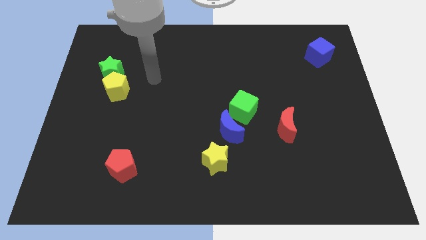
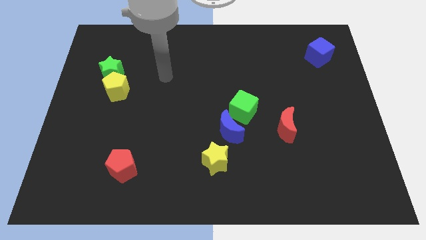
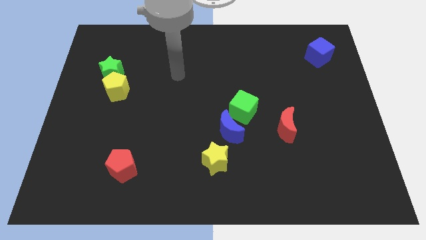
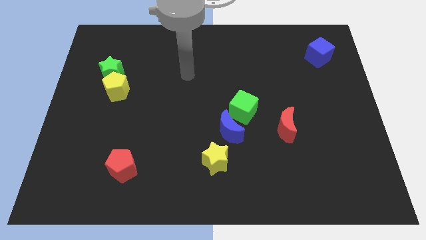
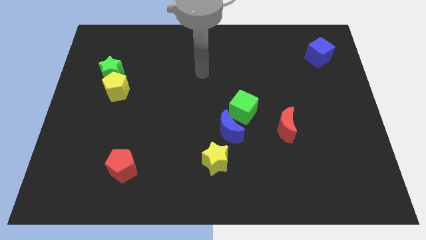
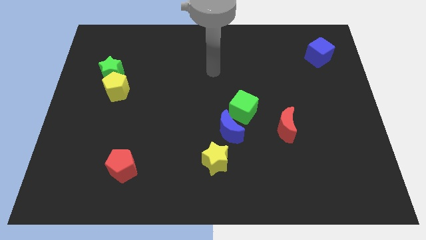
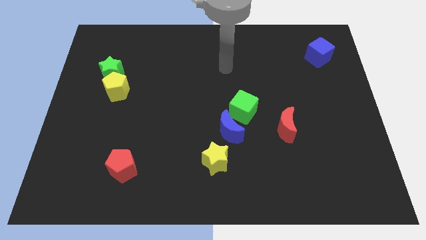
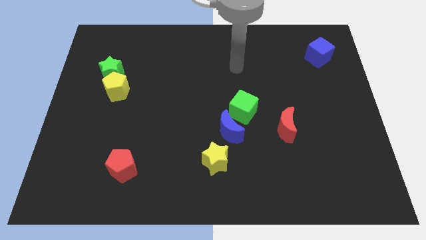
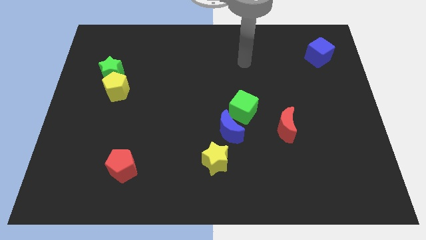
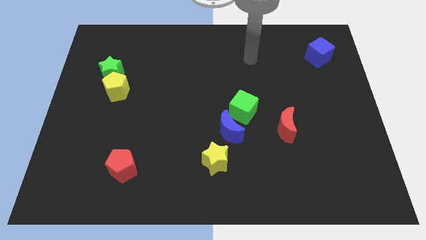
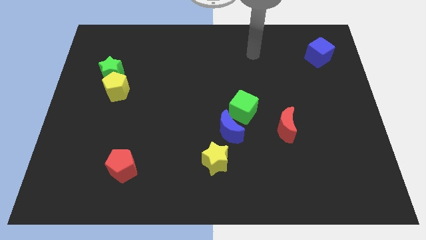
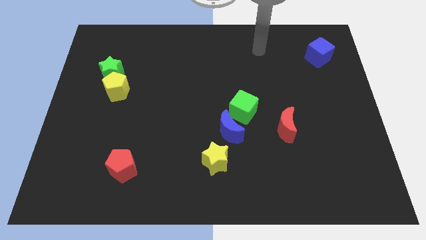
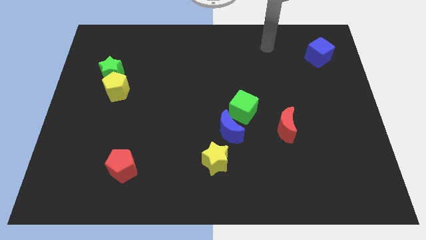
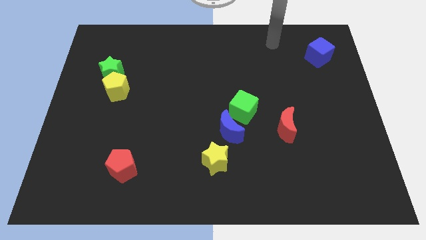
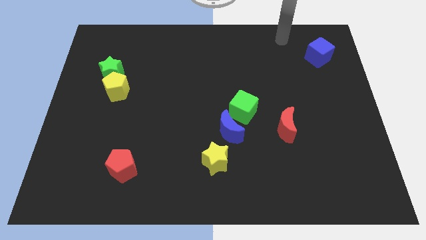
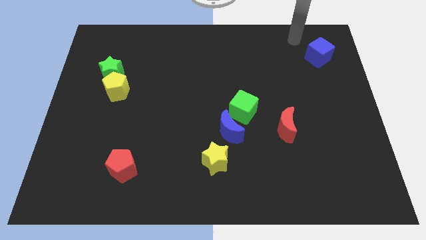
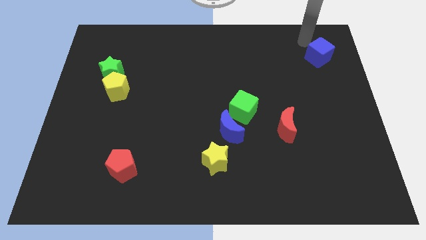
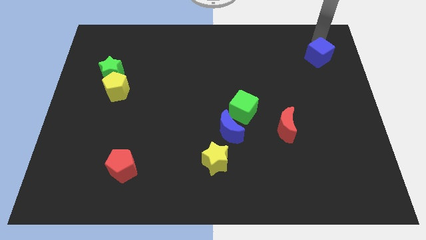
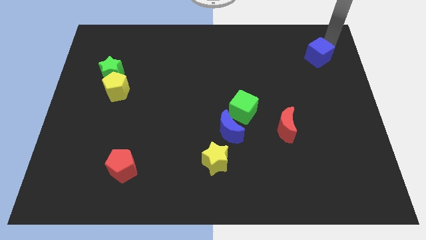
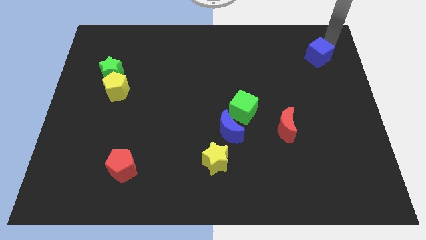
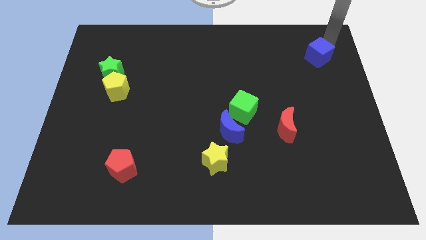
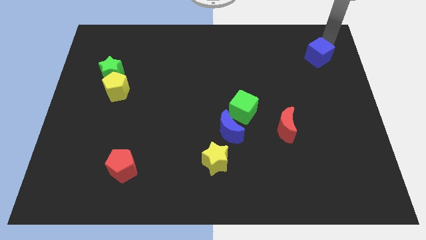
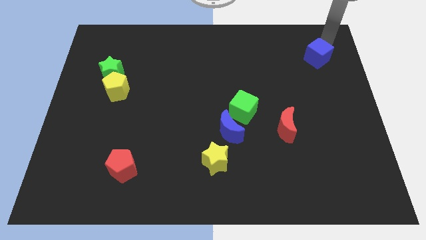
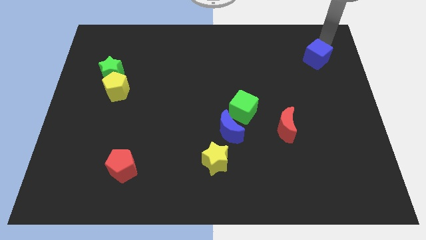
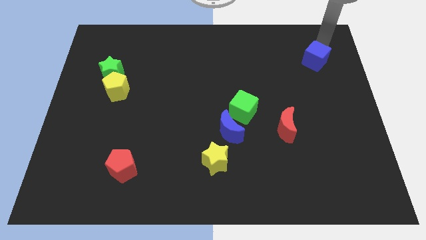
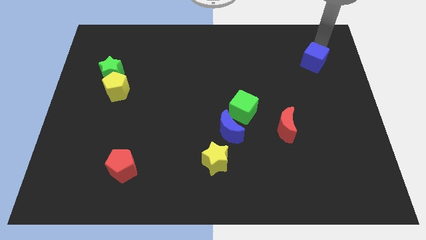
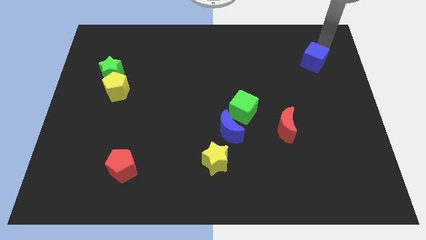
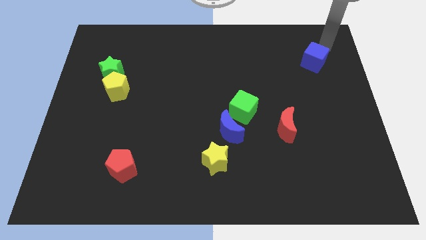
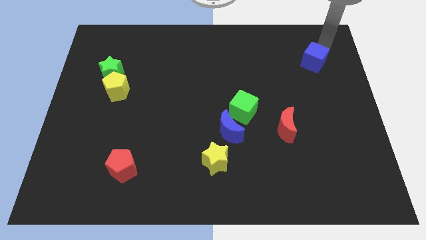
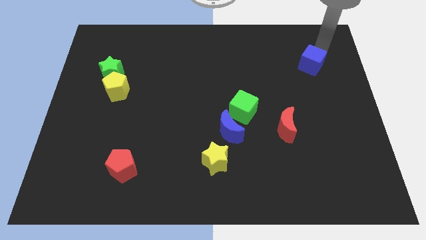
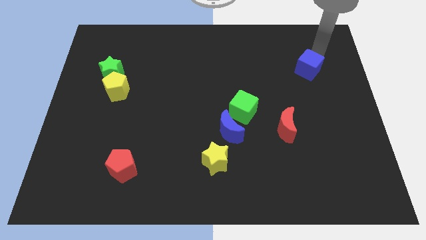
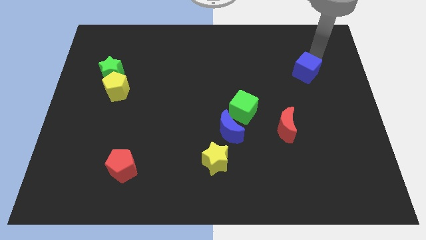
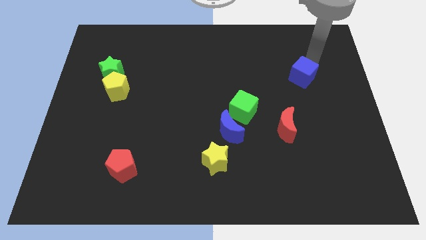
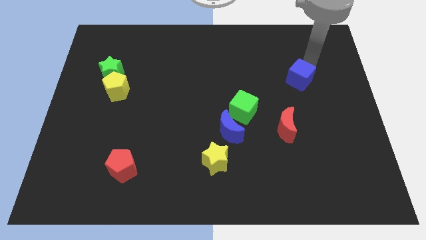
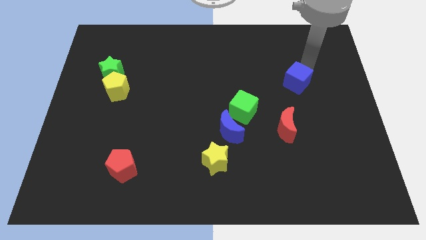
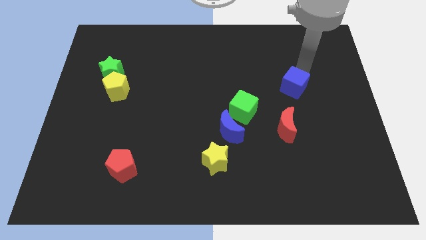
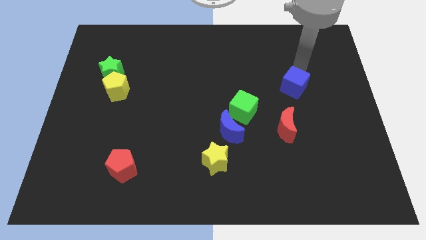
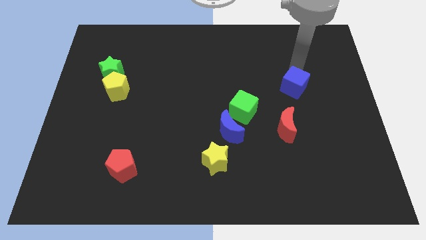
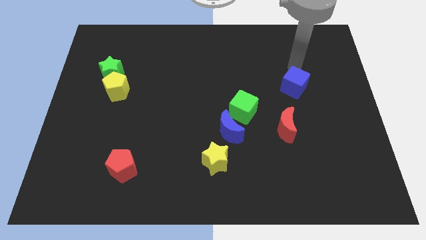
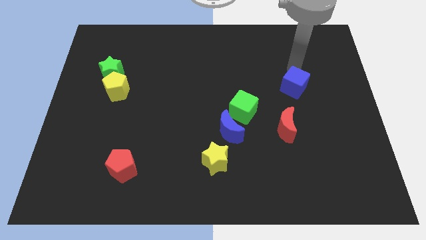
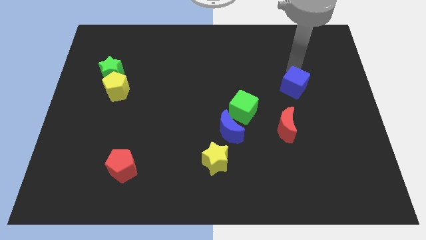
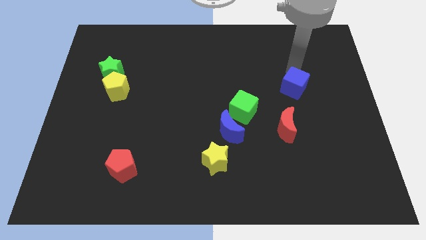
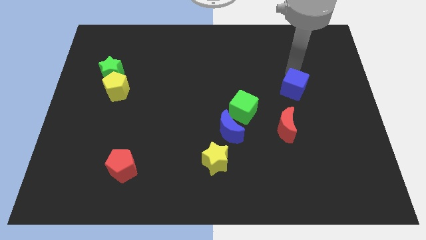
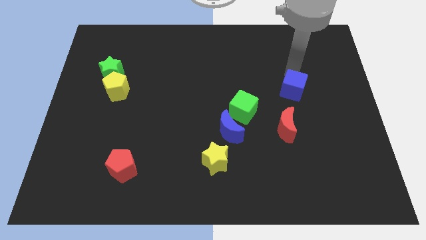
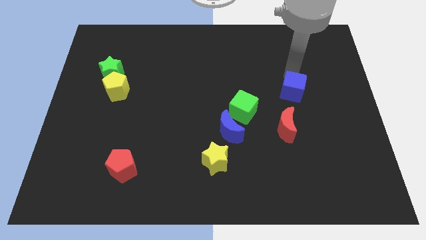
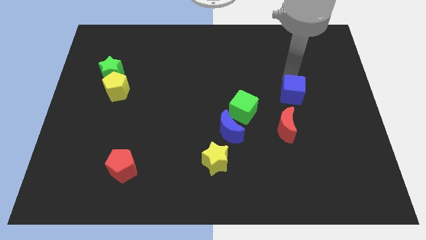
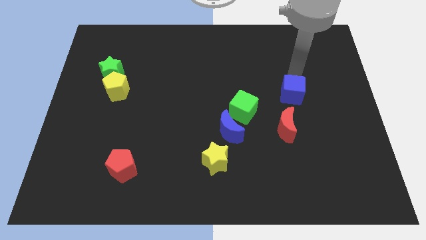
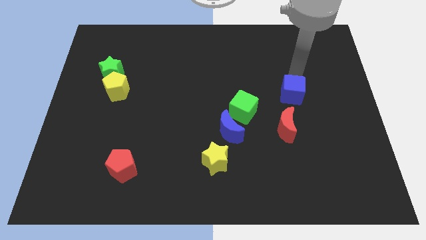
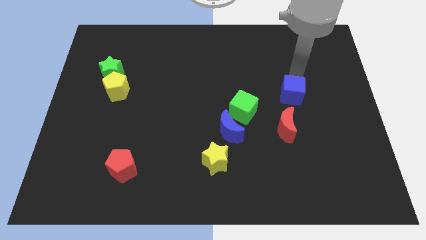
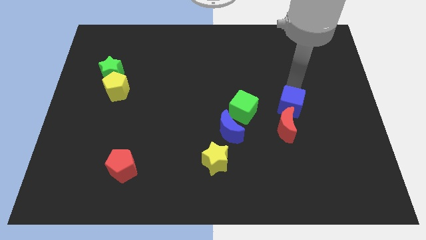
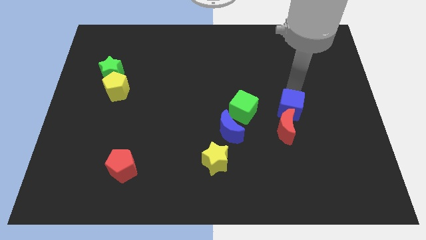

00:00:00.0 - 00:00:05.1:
slide the blue cube close to the red moon

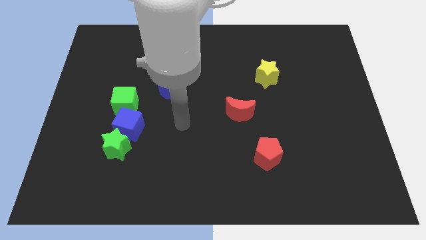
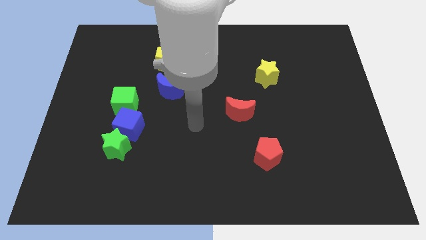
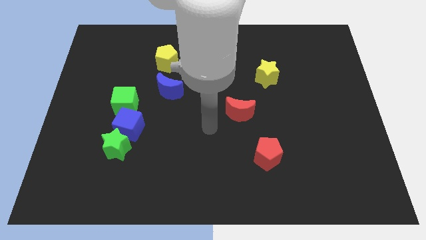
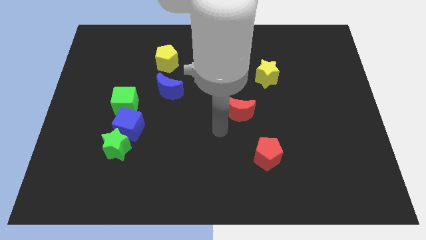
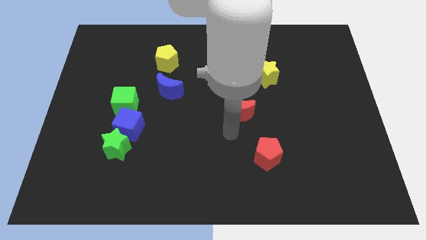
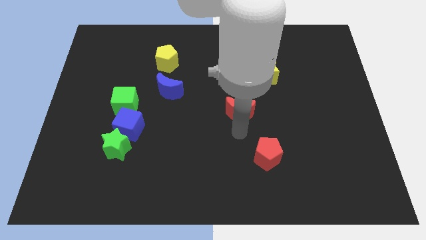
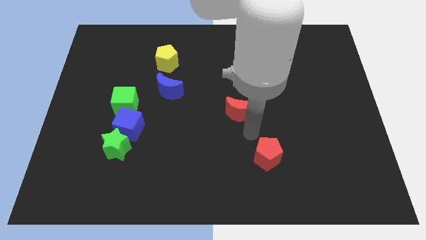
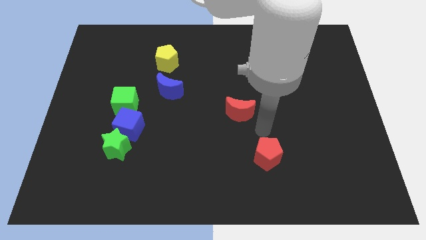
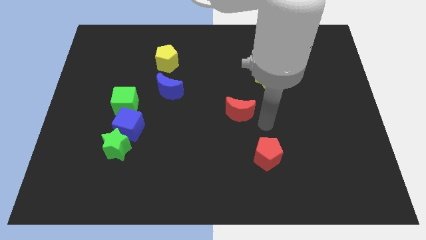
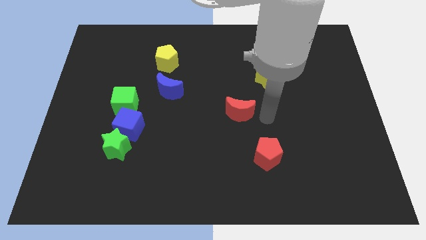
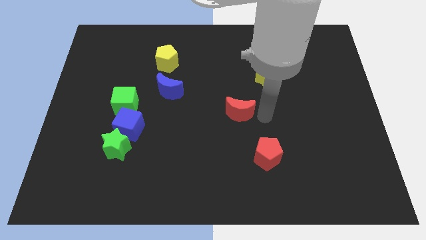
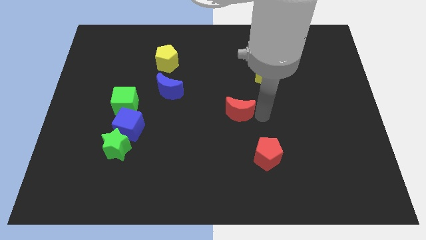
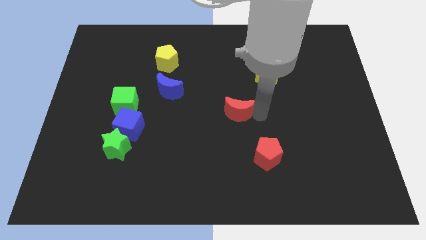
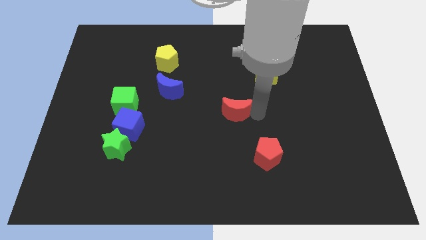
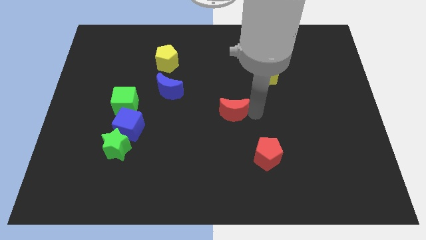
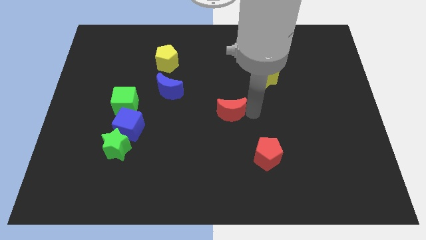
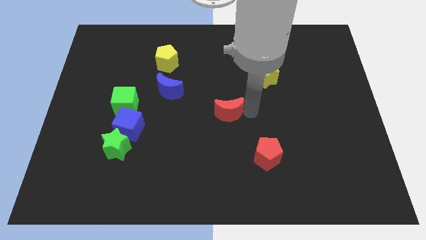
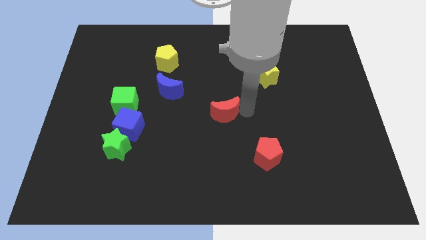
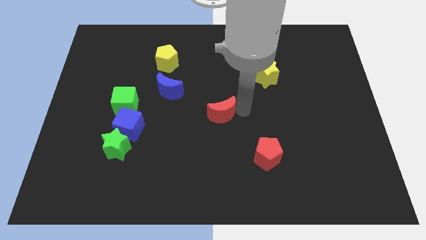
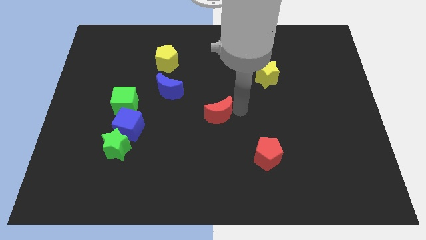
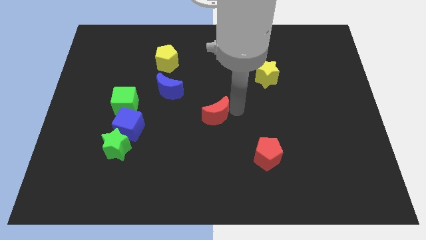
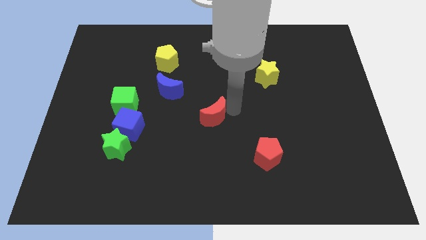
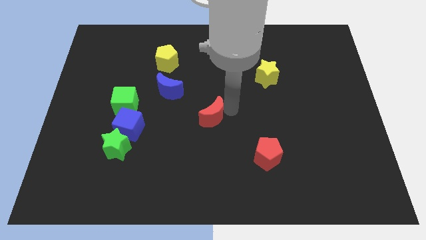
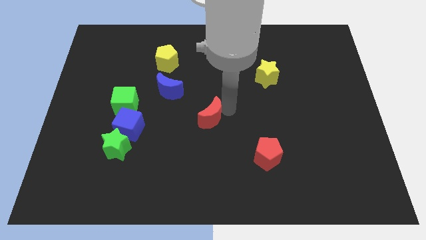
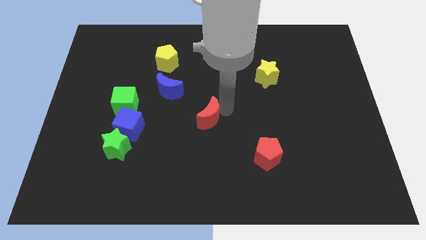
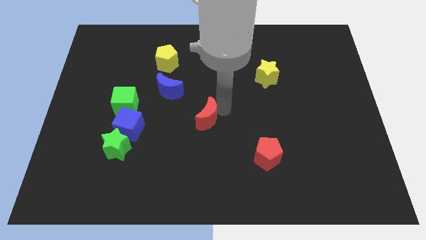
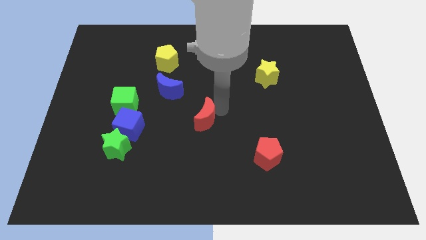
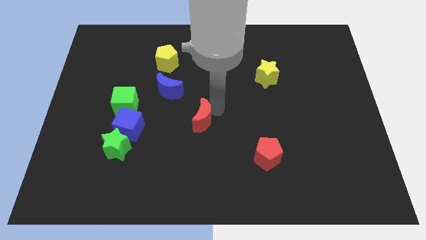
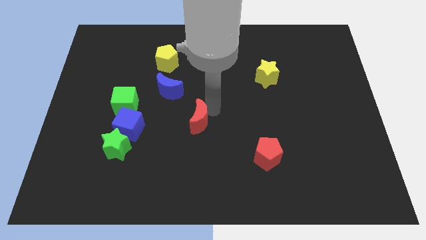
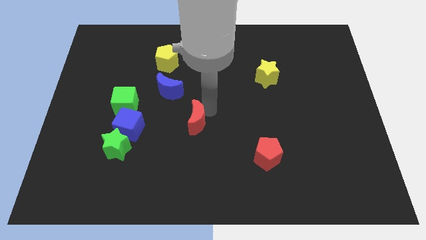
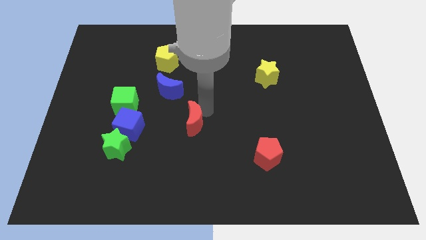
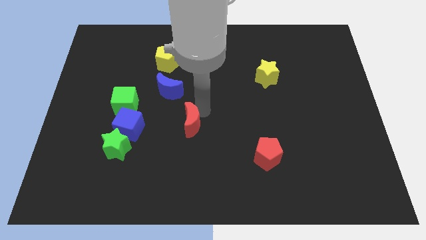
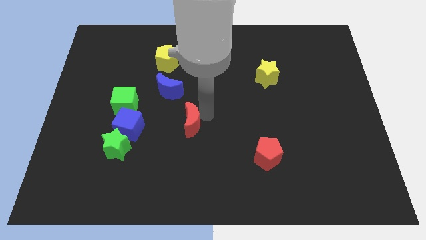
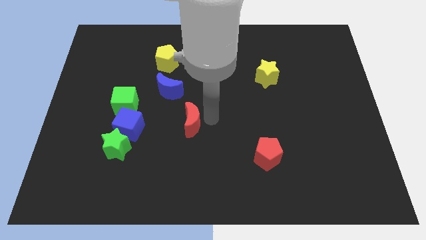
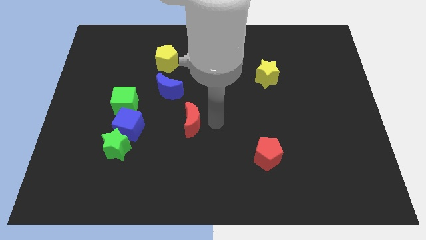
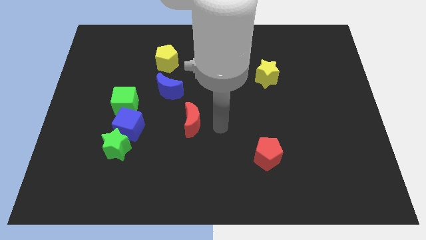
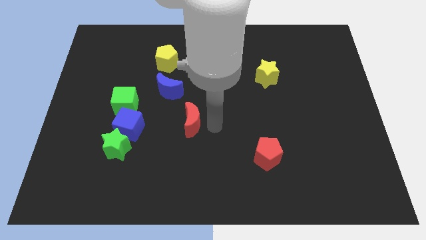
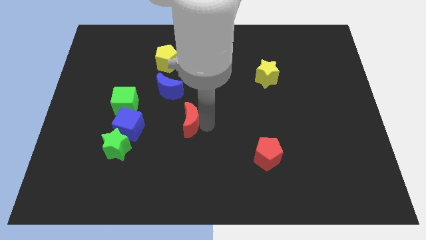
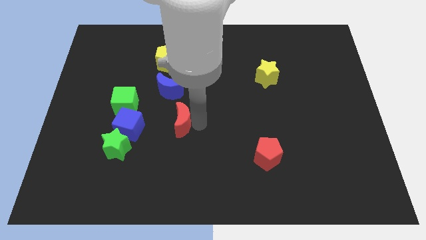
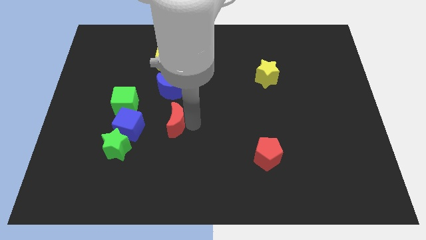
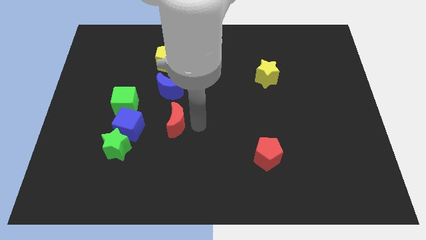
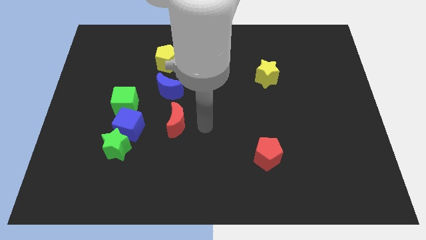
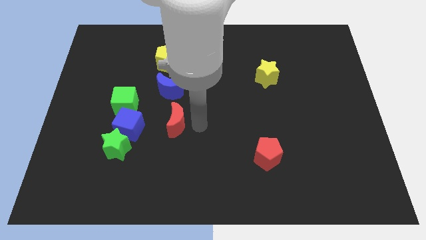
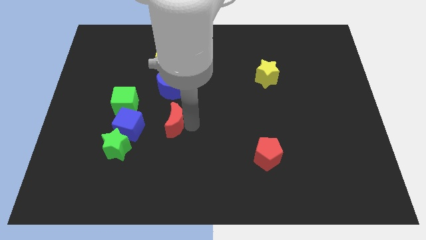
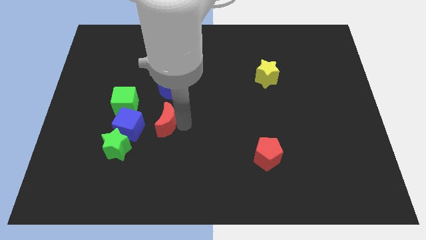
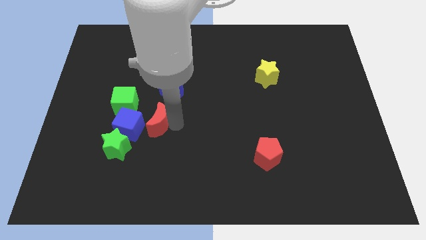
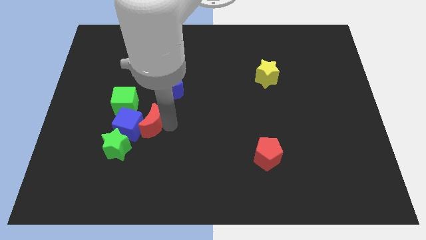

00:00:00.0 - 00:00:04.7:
slide the red moon close to the blue cube
